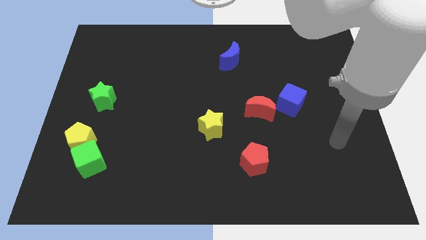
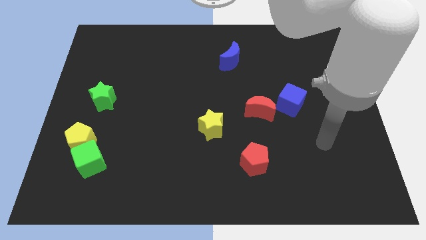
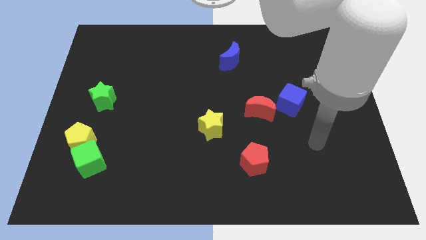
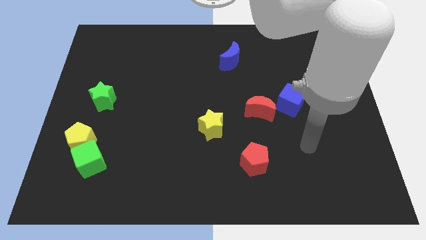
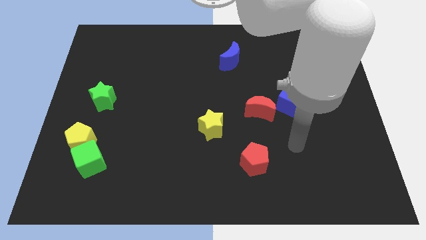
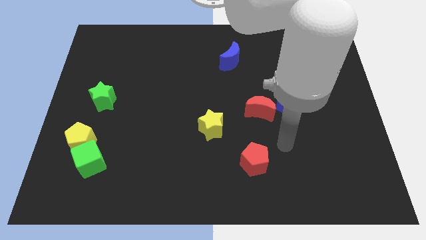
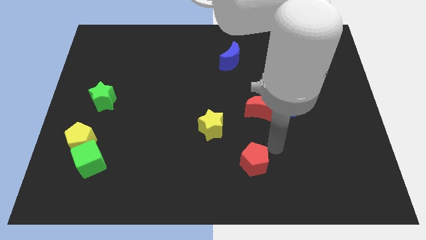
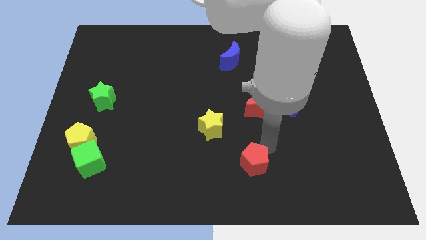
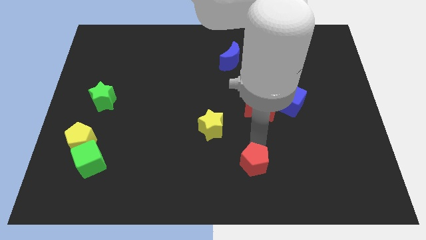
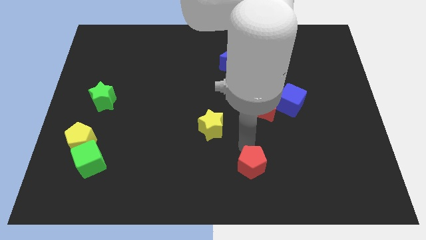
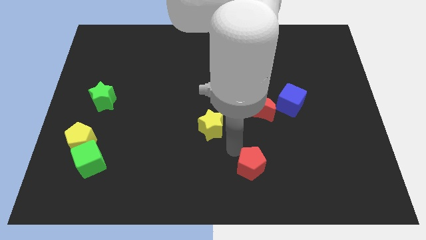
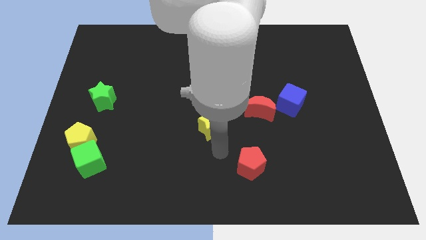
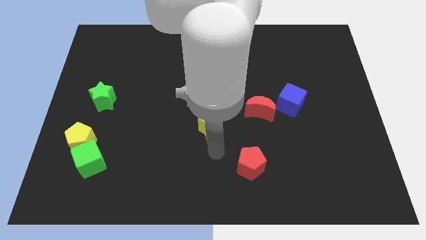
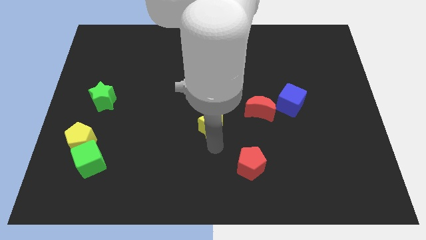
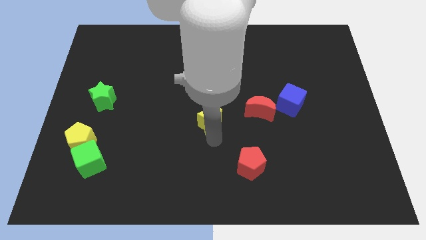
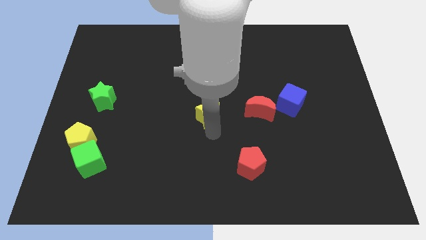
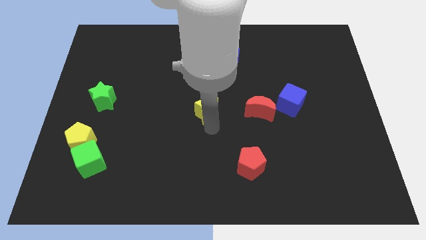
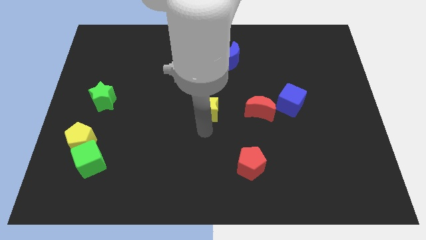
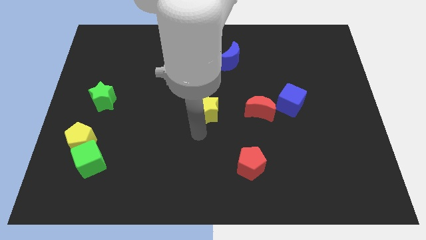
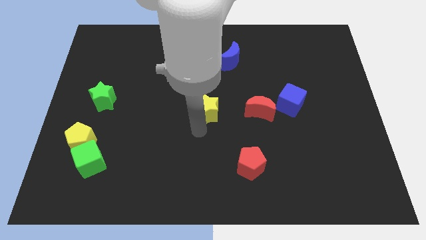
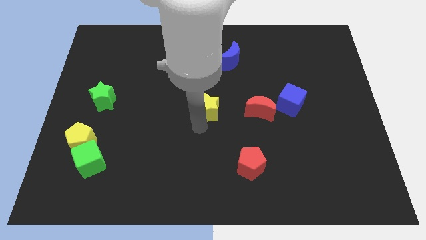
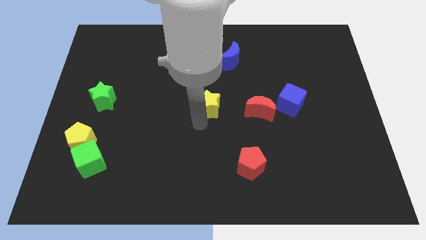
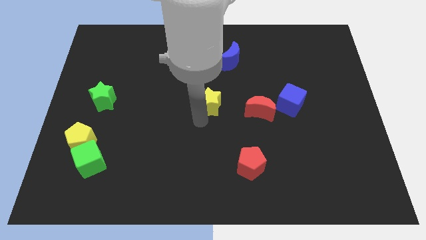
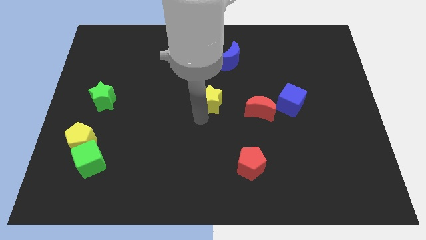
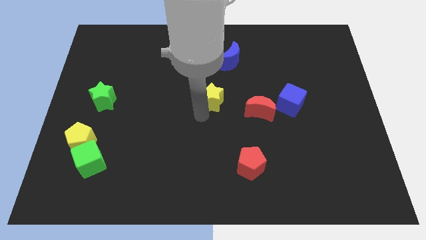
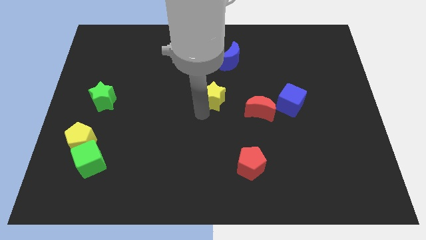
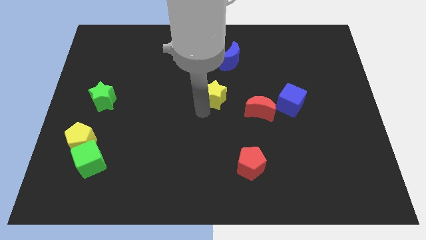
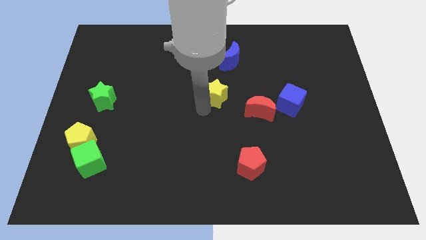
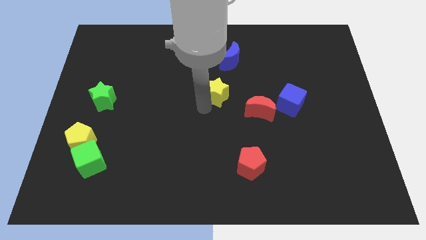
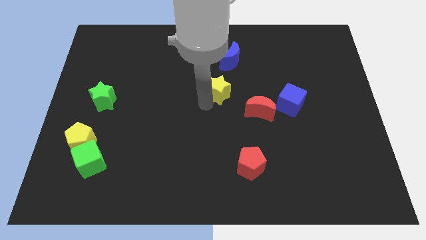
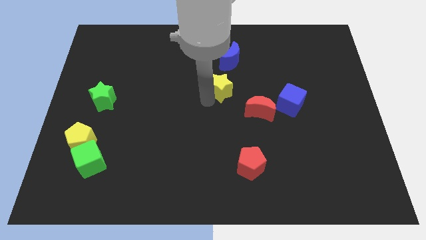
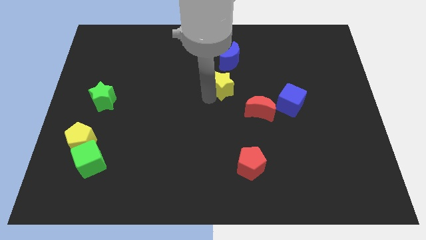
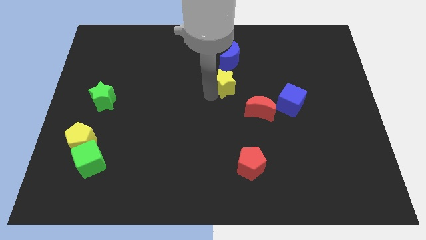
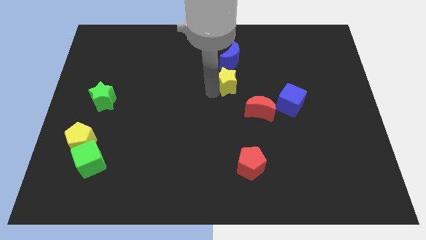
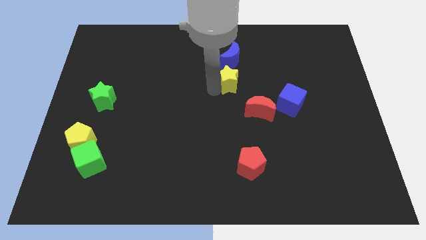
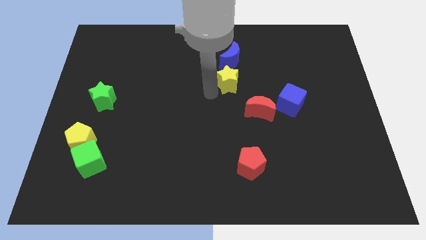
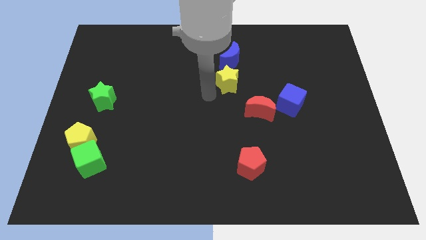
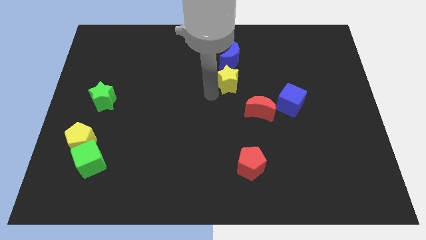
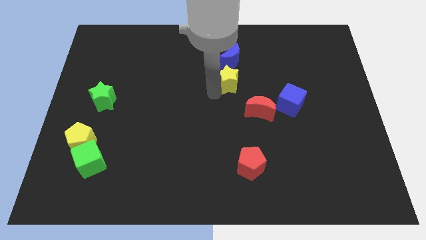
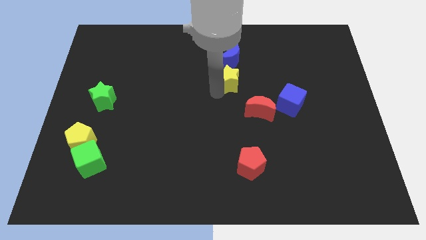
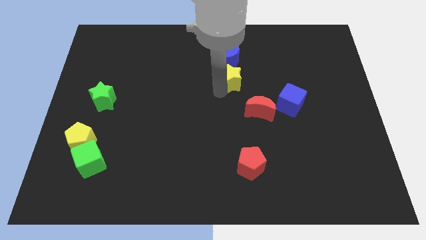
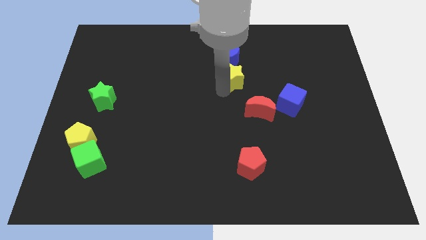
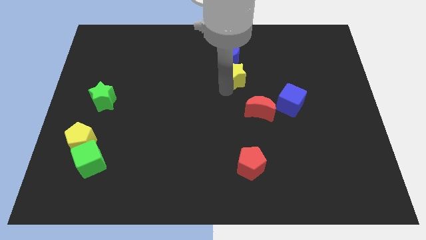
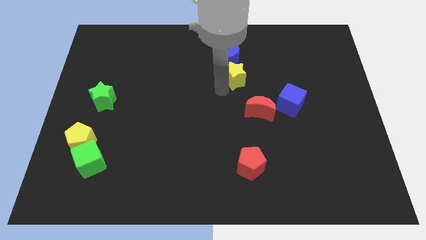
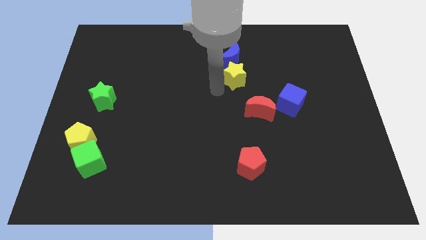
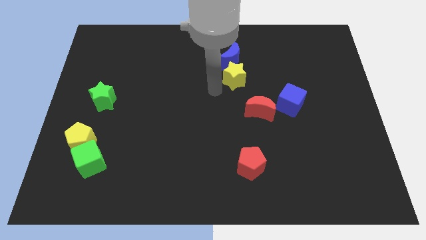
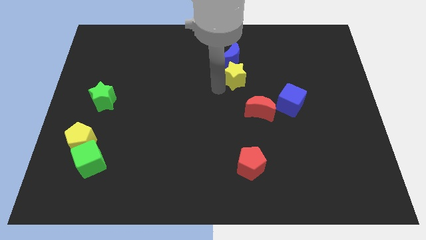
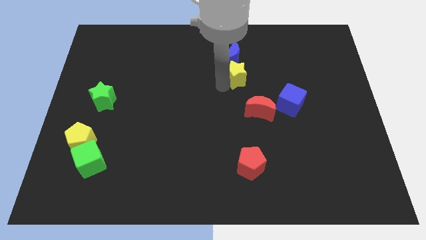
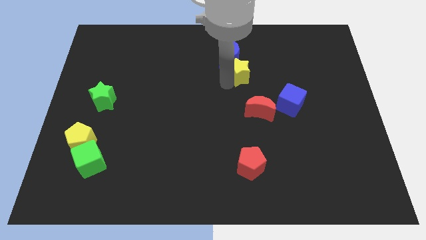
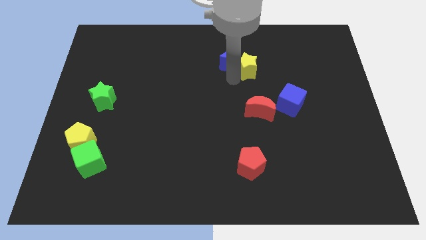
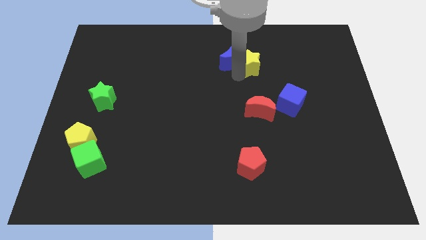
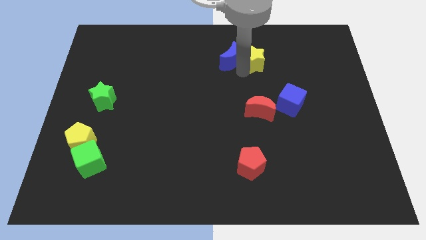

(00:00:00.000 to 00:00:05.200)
slide the yellow star upwards and to the right

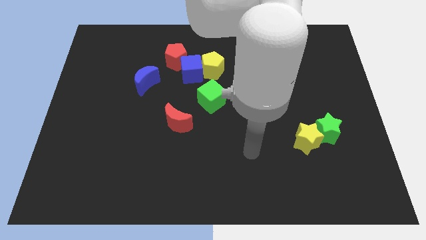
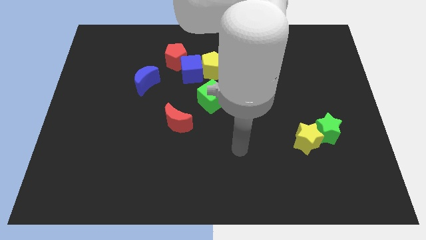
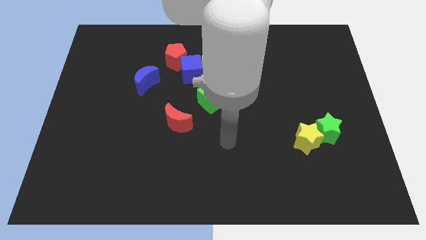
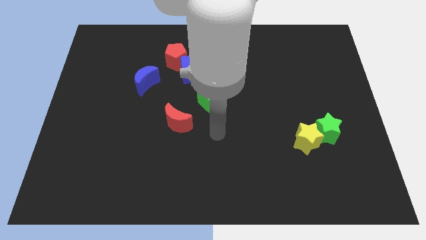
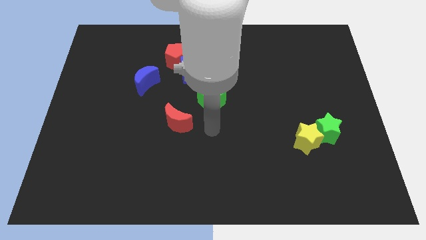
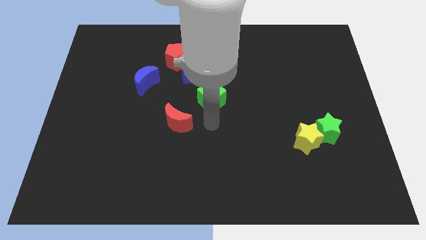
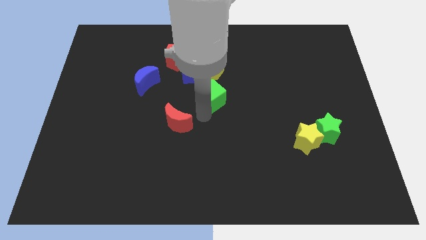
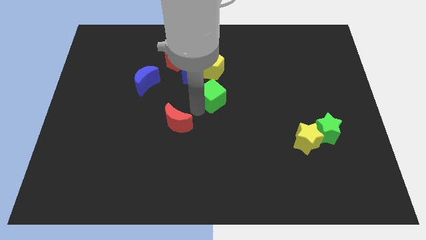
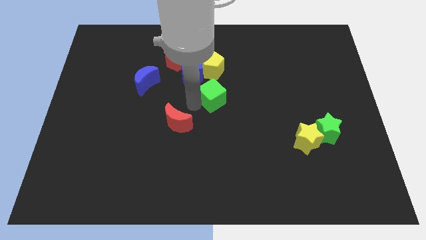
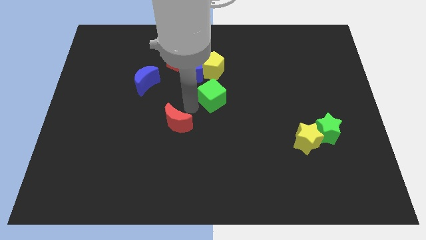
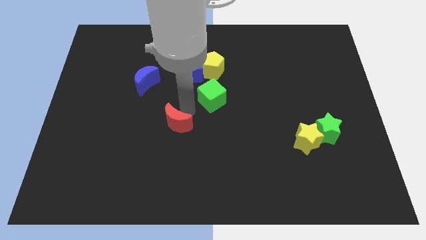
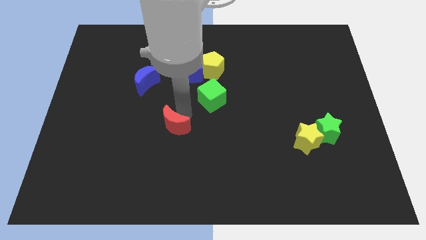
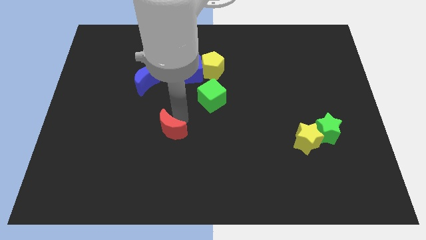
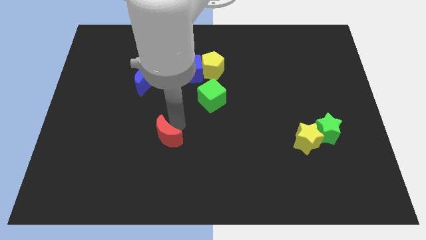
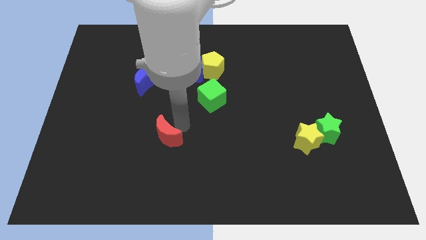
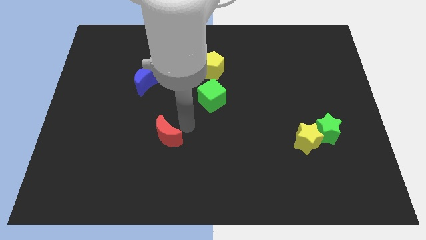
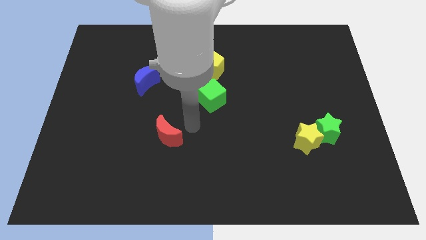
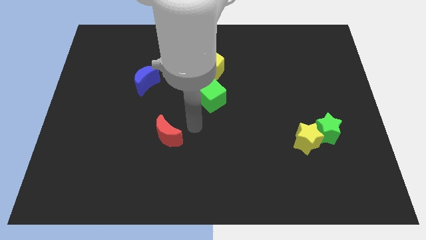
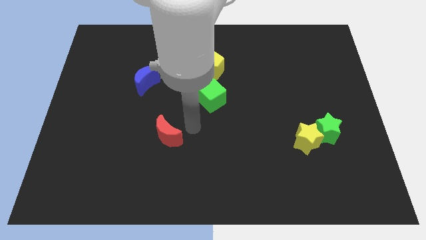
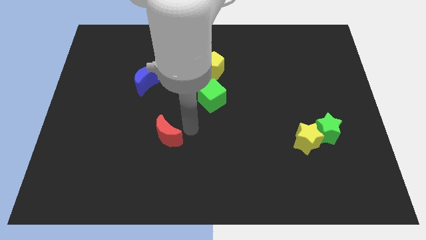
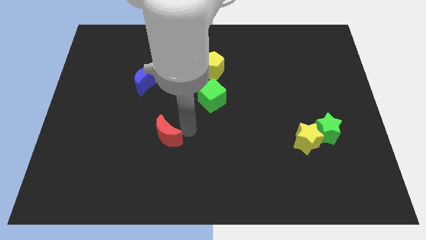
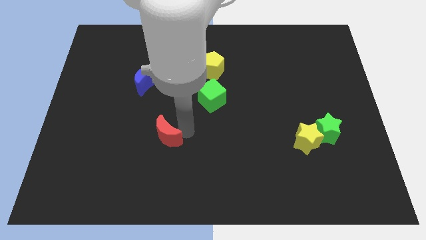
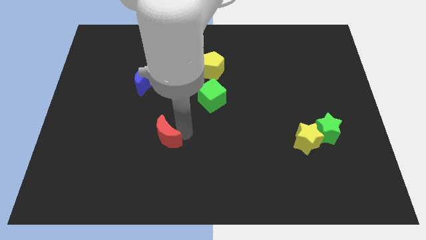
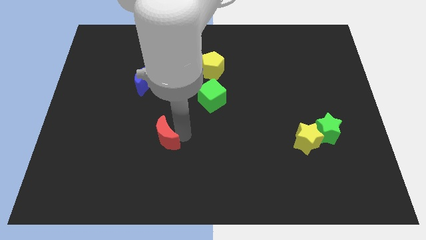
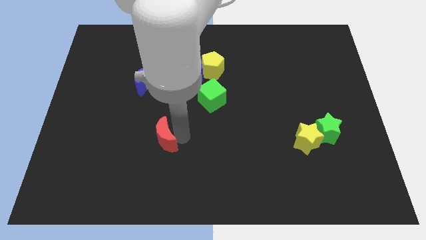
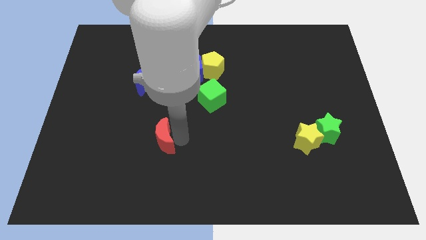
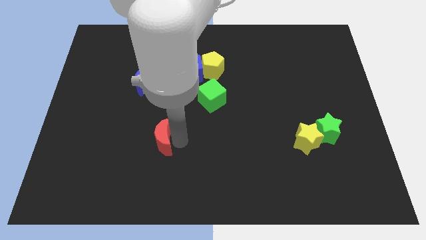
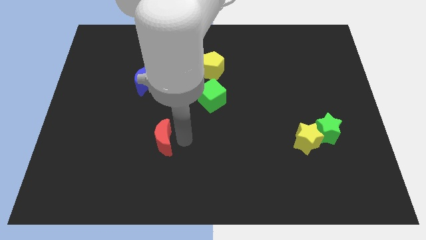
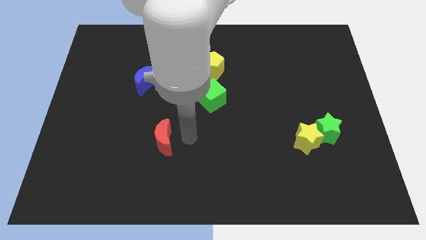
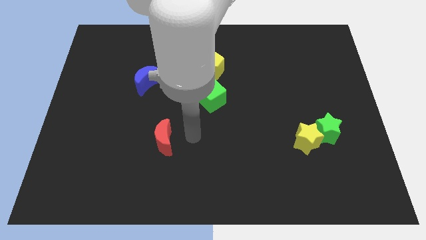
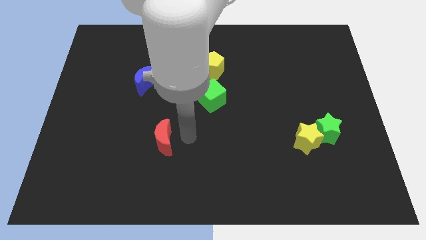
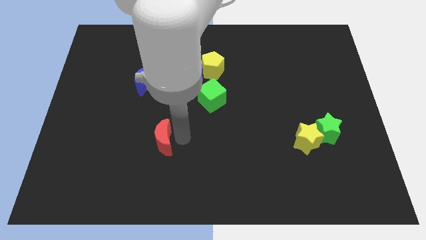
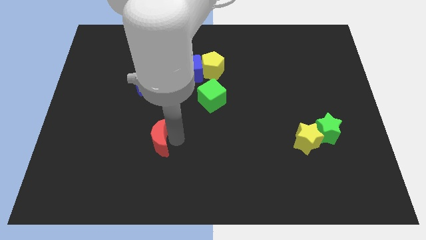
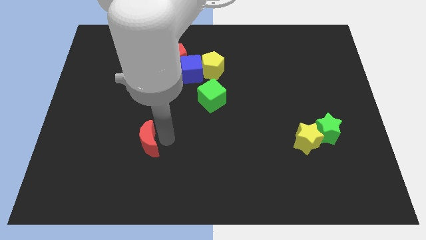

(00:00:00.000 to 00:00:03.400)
move the red moon downwards and then left a bit
